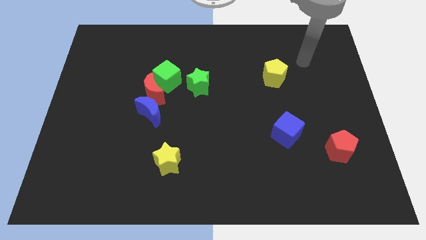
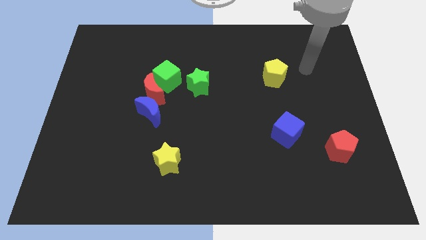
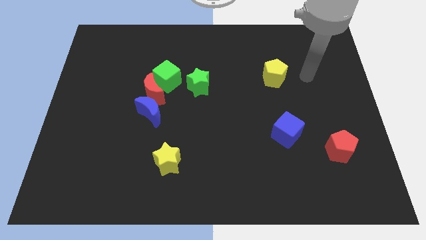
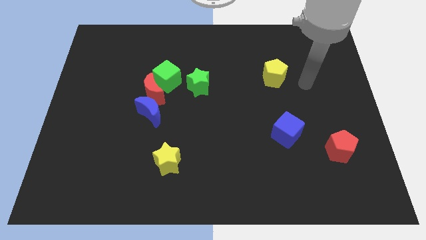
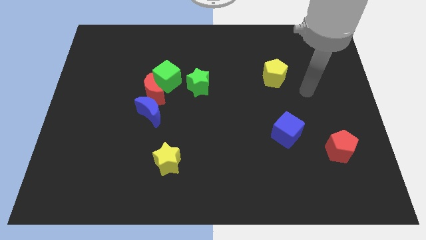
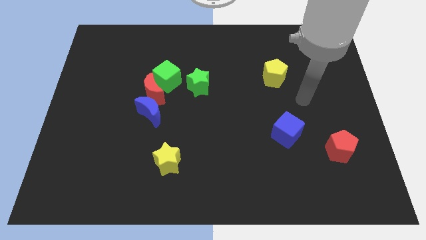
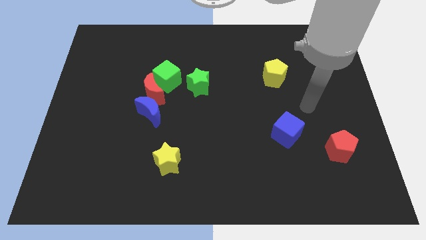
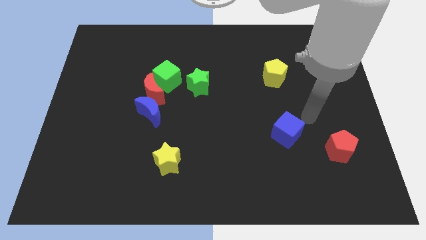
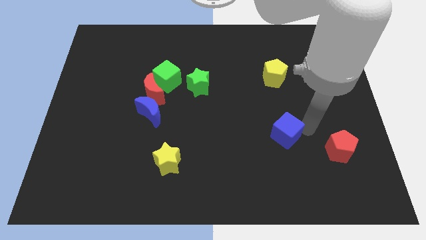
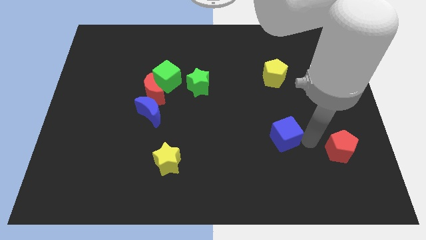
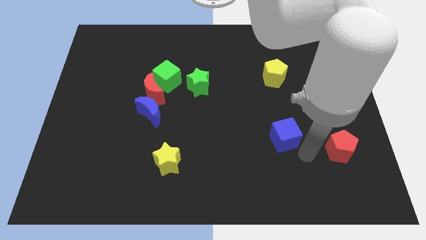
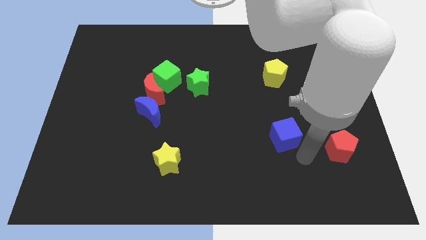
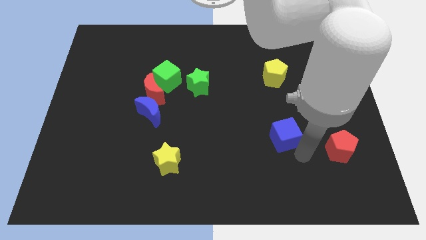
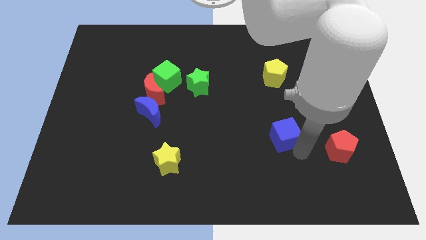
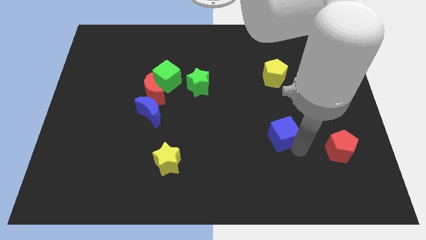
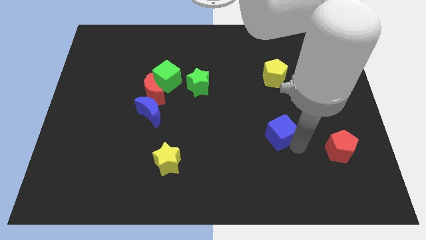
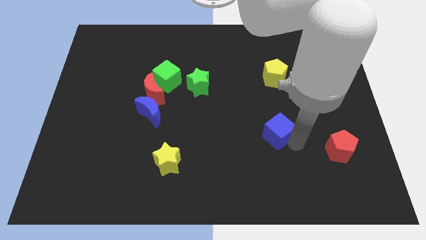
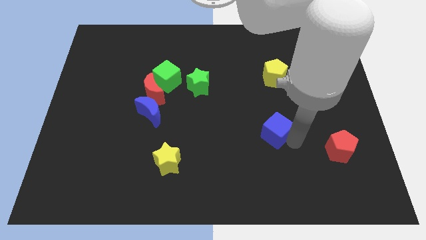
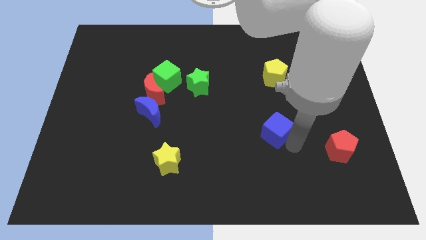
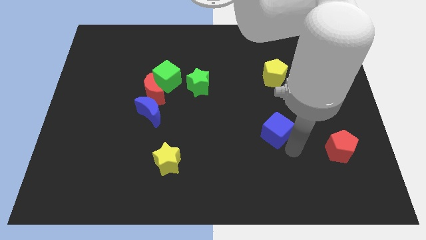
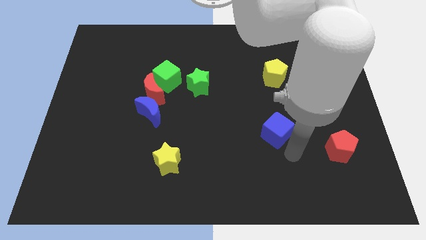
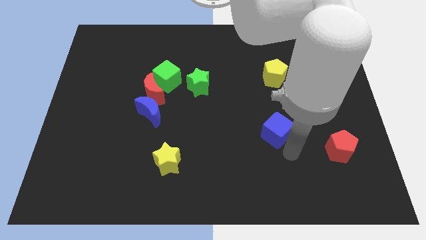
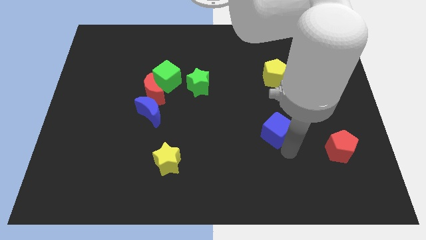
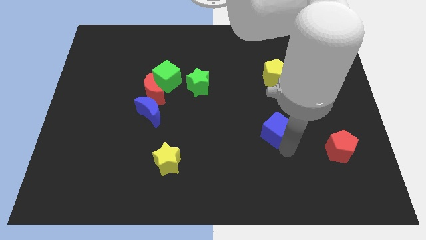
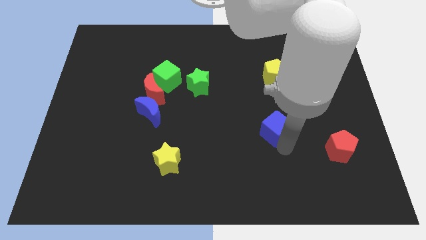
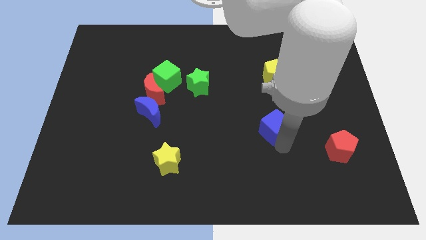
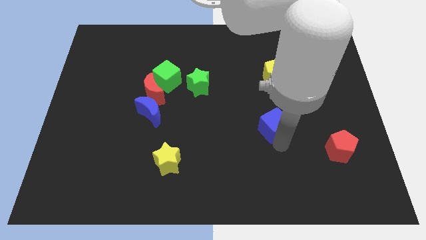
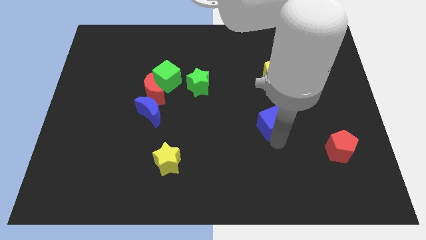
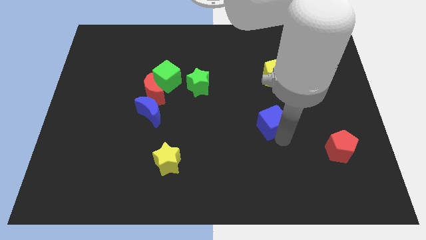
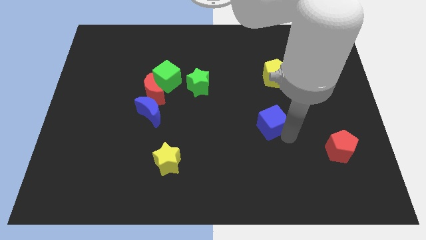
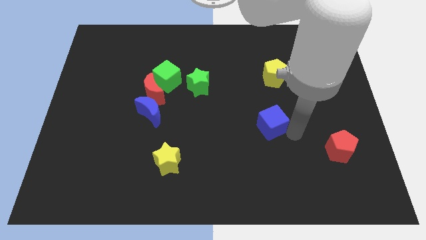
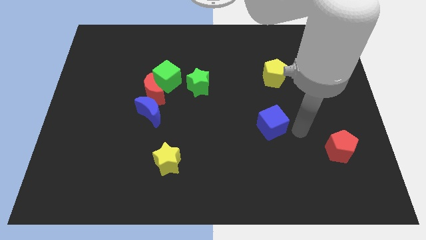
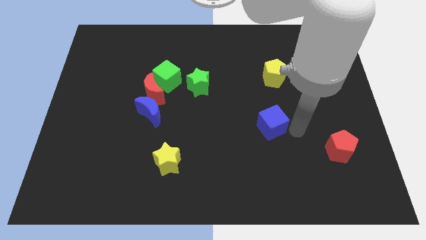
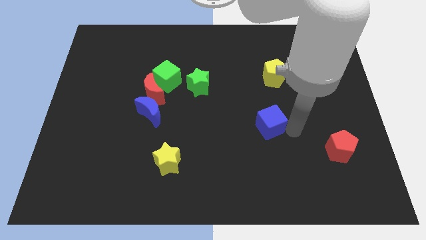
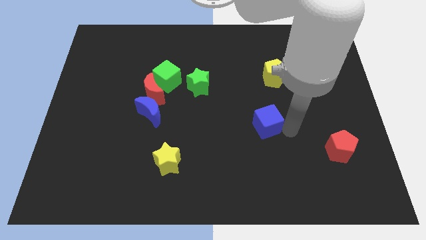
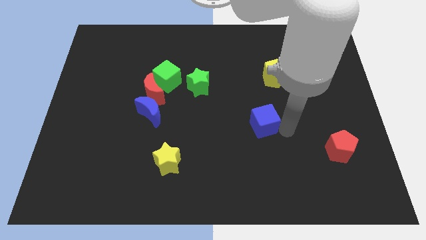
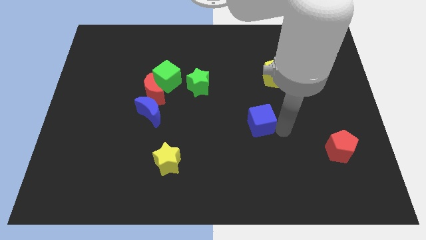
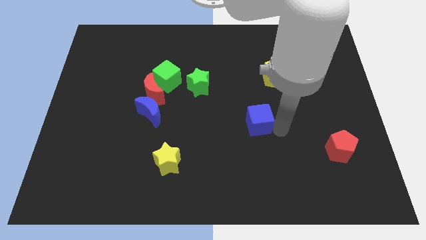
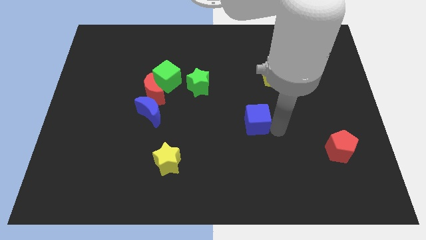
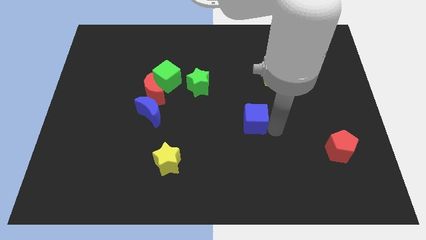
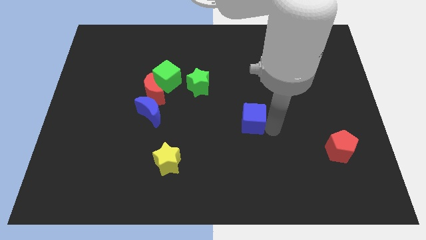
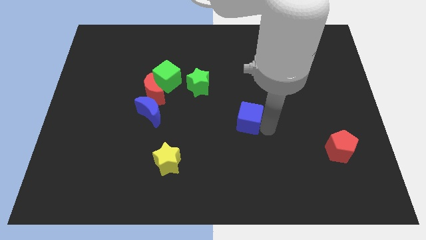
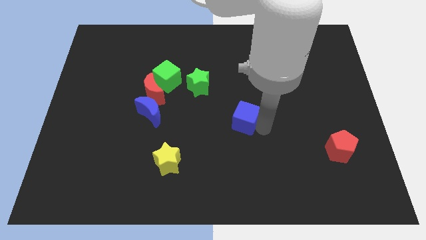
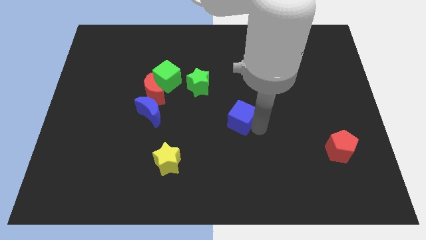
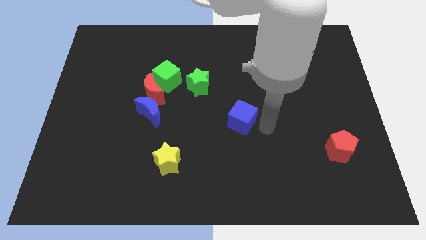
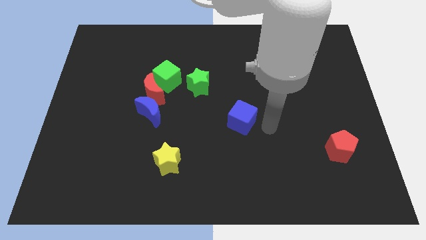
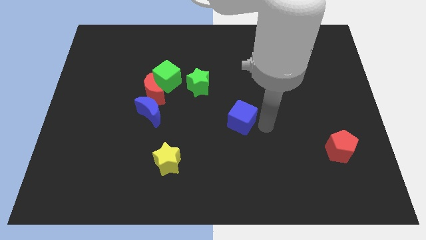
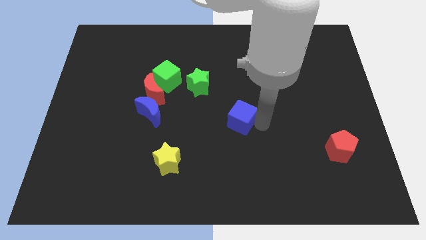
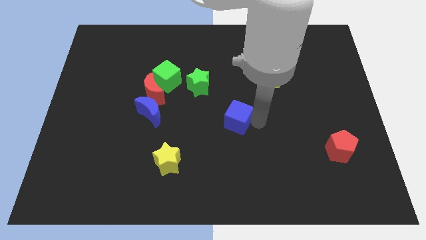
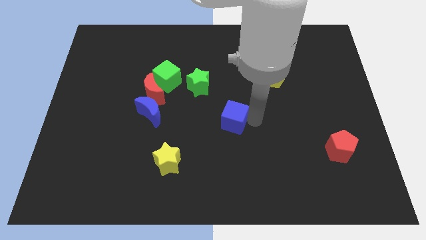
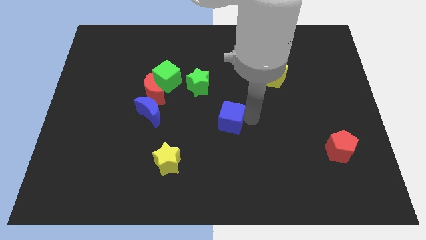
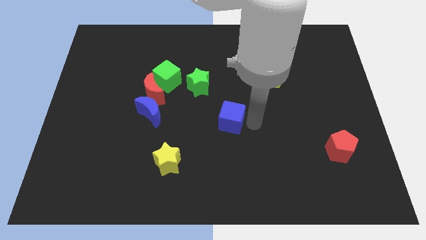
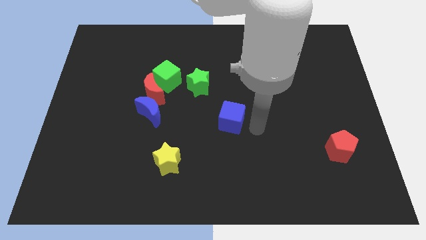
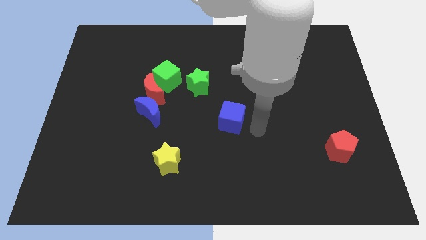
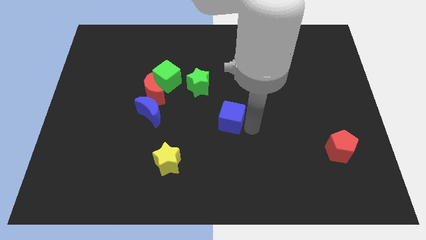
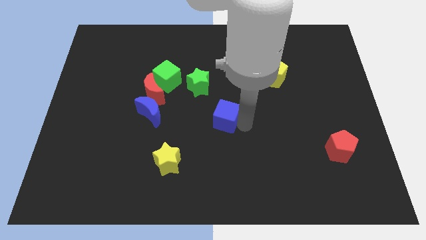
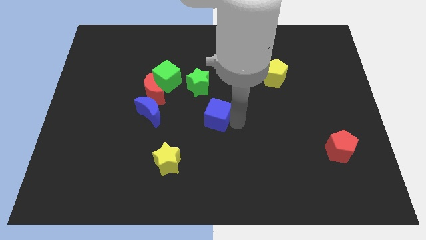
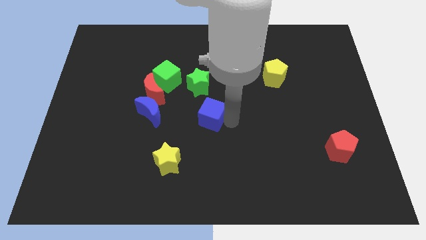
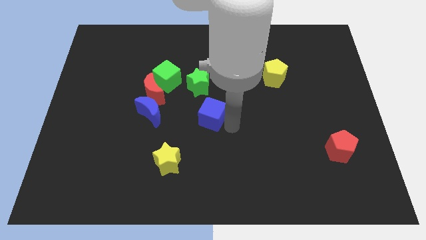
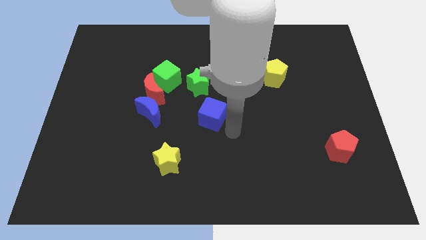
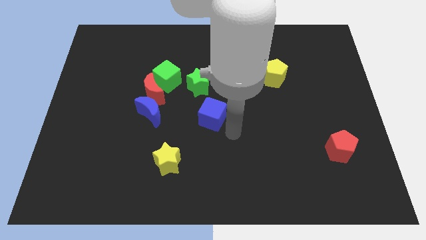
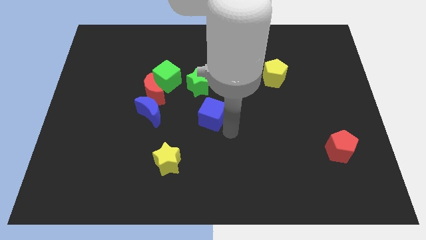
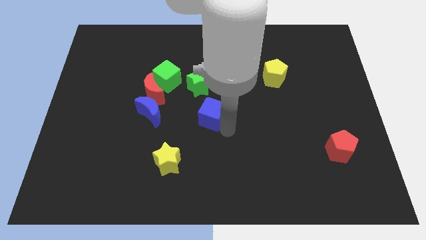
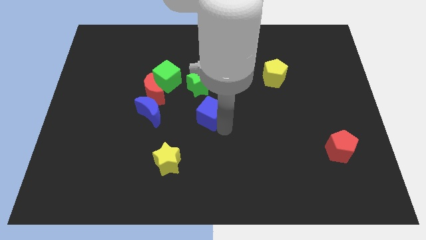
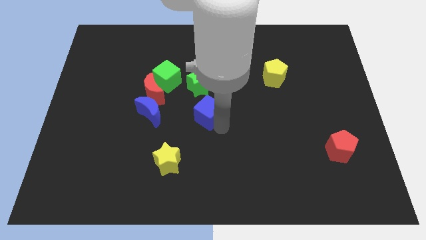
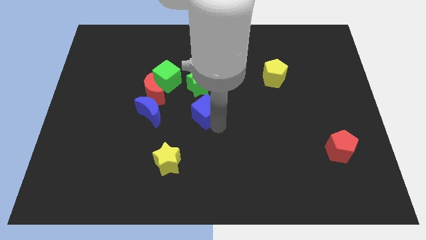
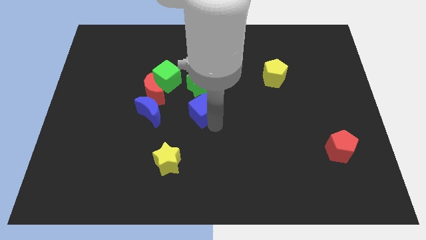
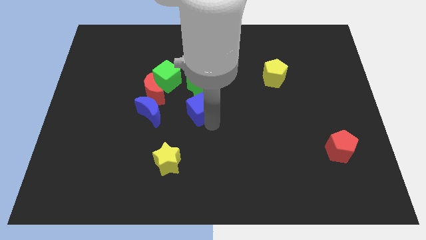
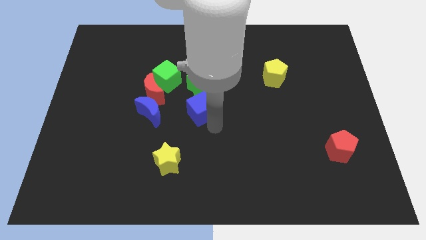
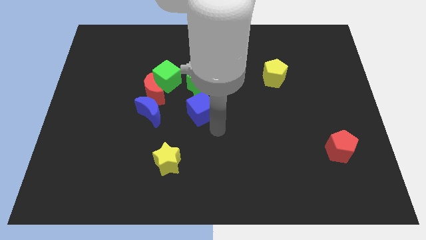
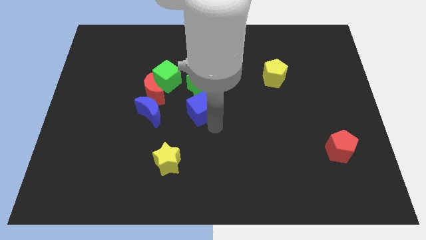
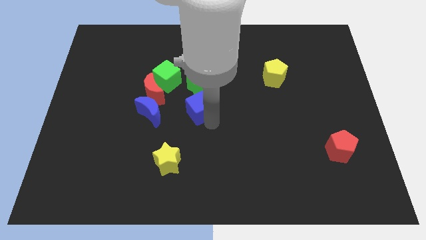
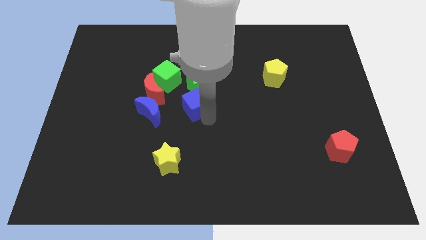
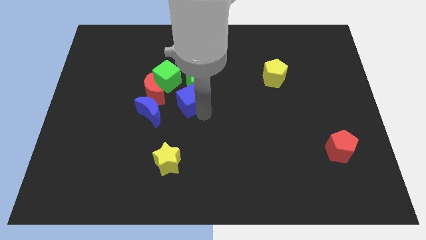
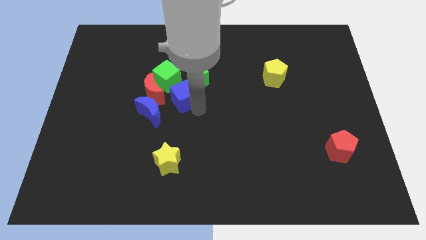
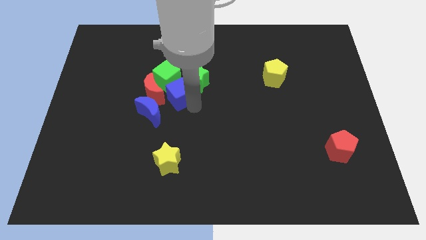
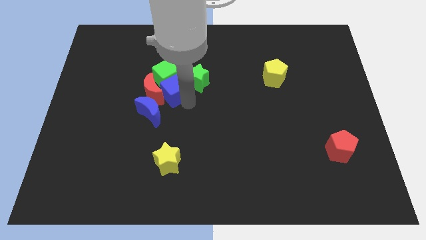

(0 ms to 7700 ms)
move the blue cube to the green cube
